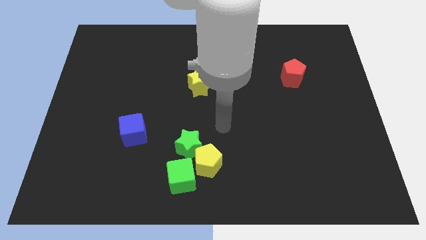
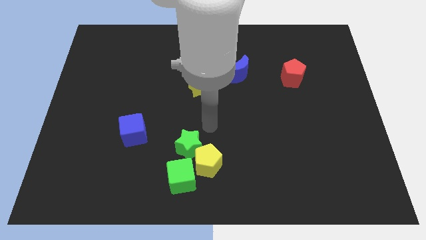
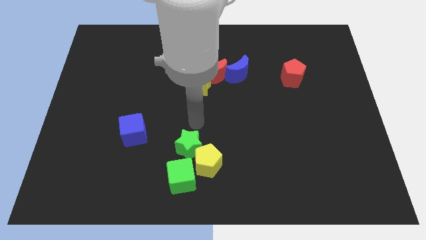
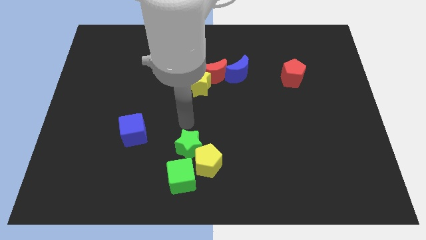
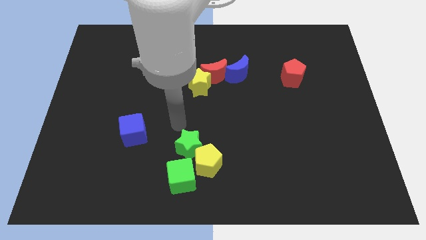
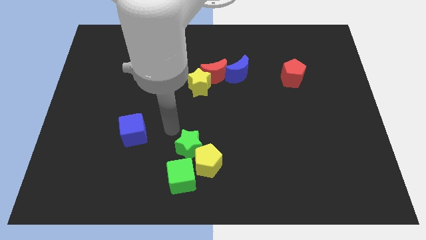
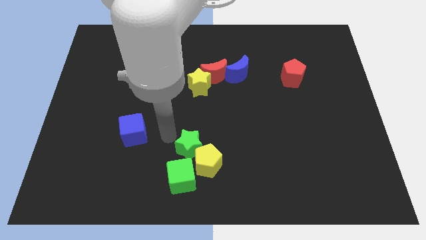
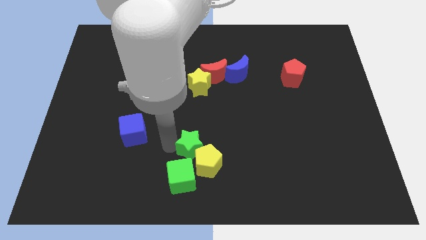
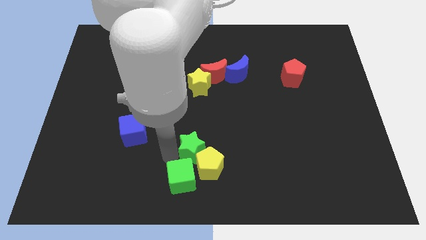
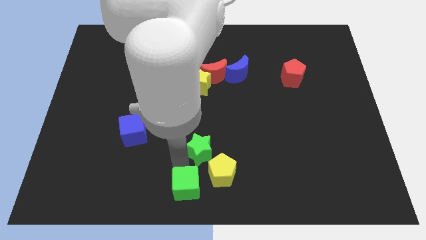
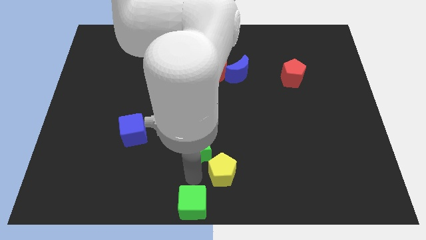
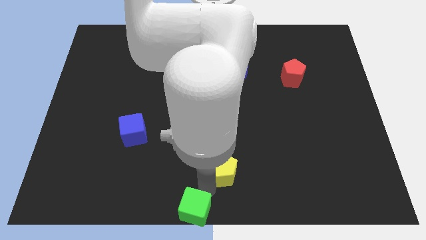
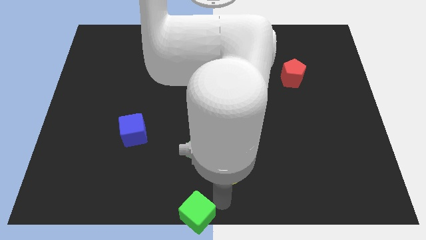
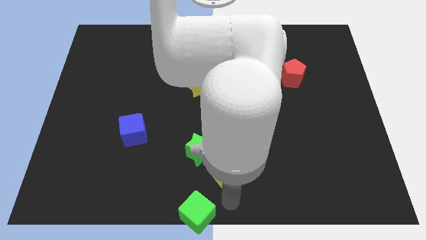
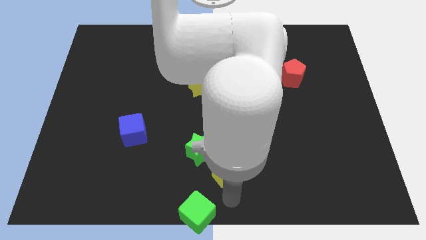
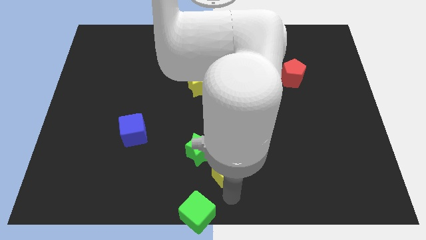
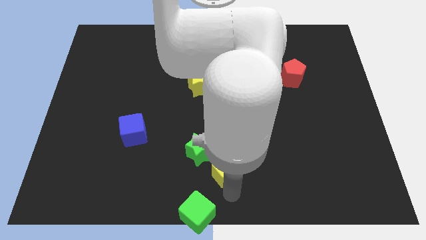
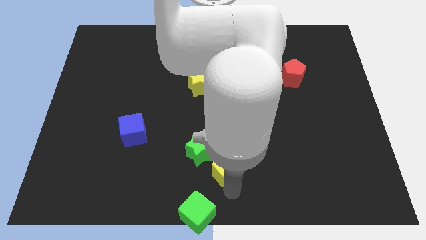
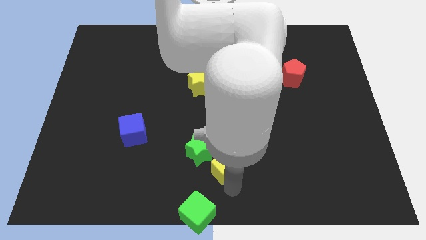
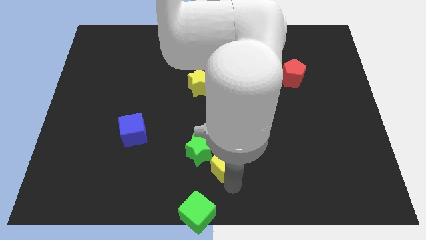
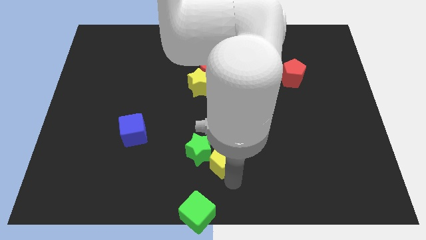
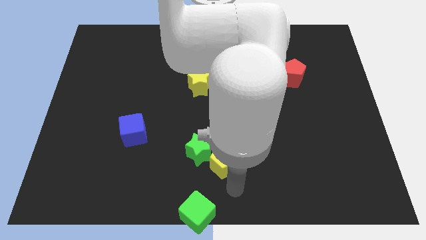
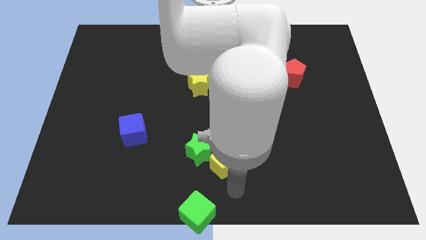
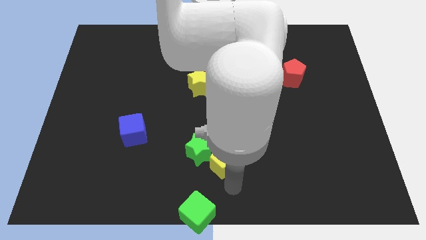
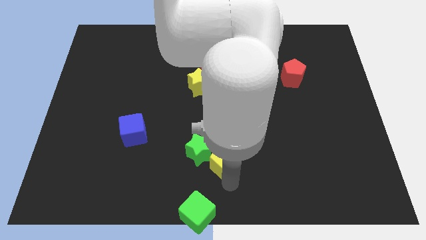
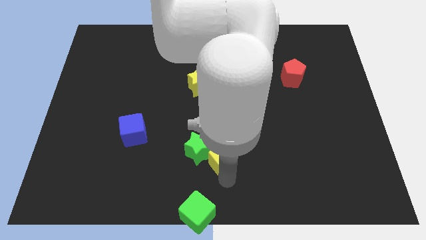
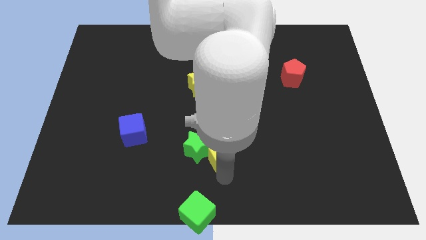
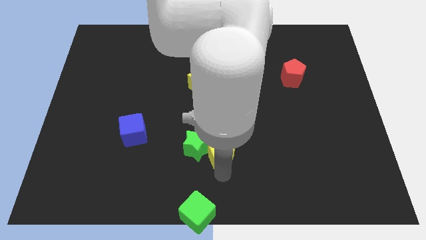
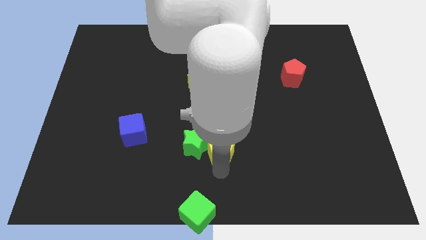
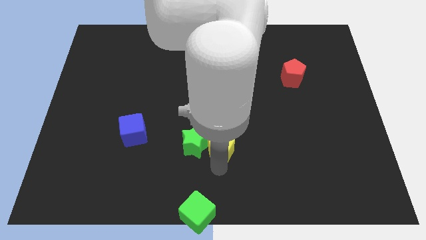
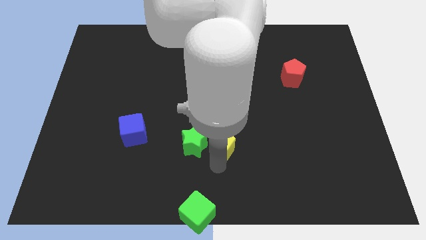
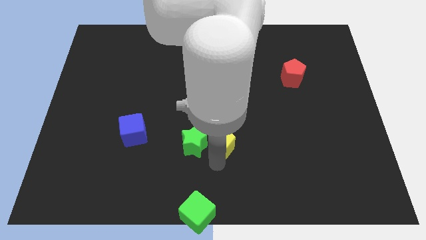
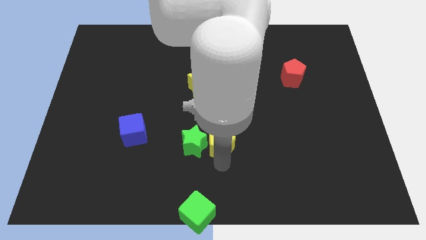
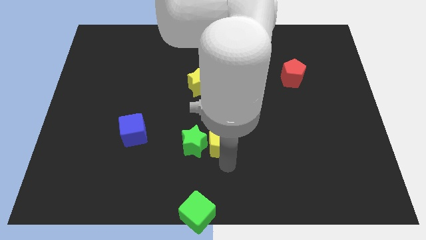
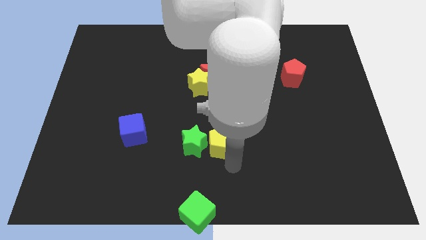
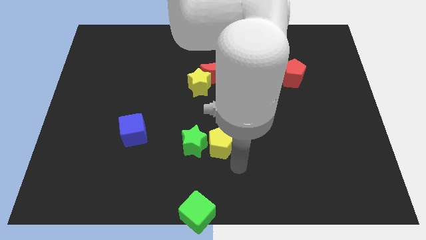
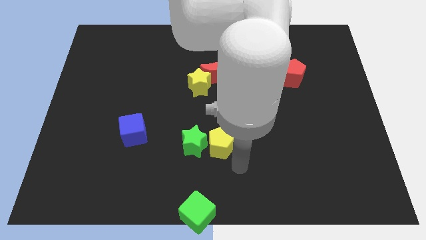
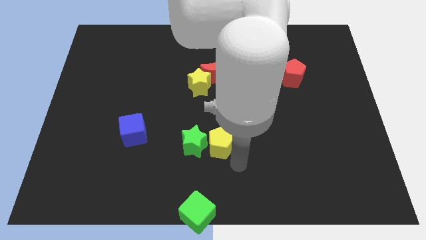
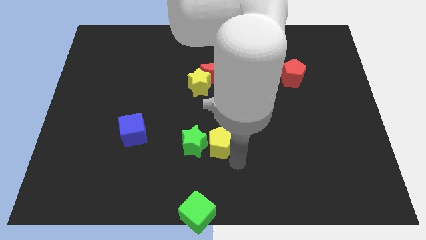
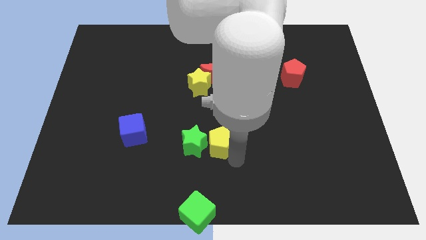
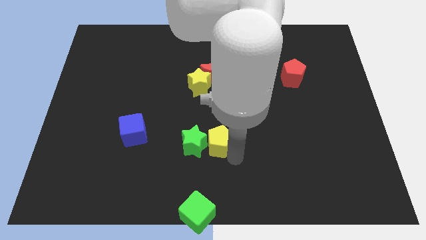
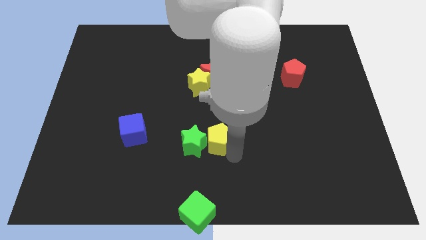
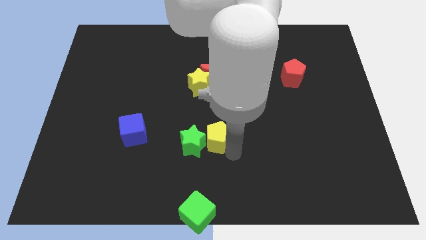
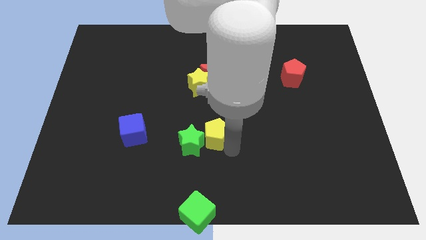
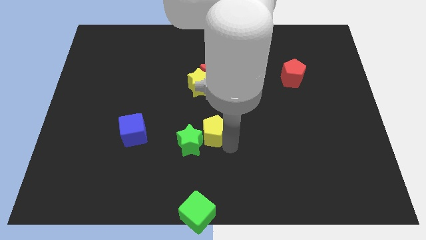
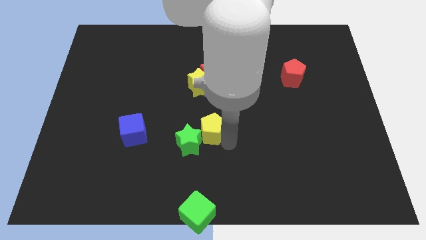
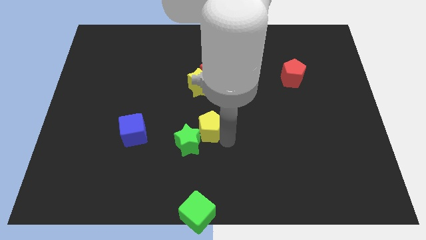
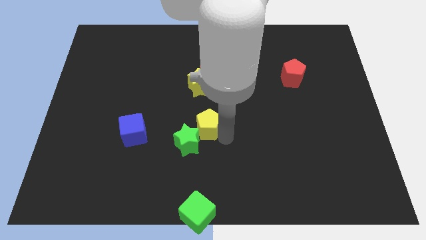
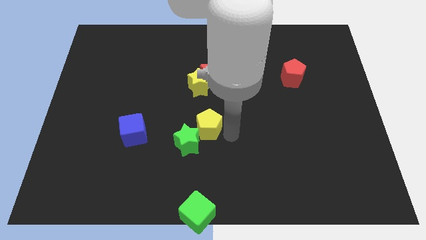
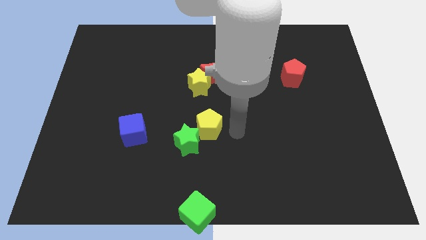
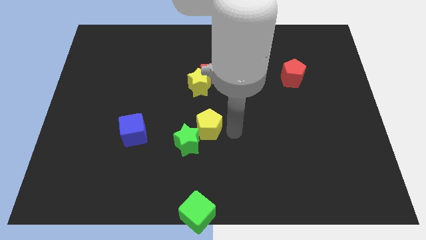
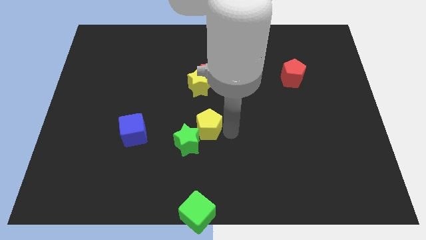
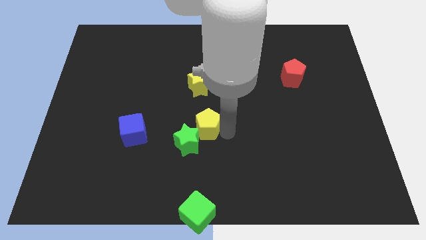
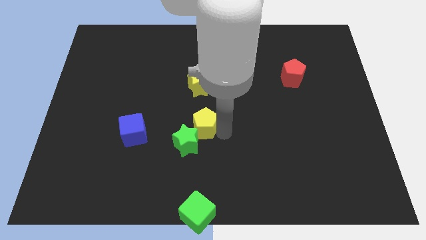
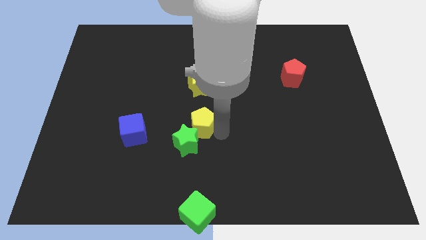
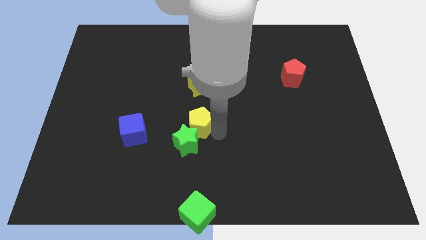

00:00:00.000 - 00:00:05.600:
move the yellow pentagon a little diagonally upwards and left

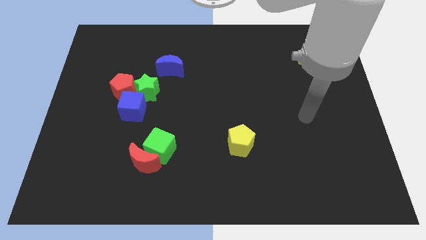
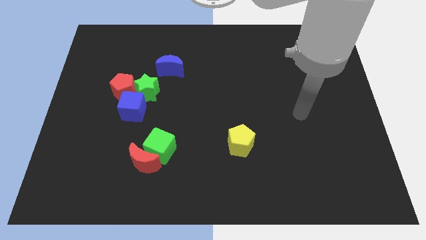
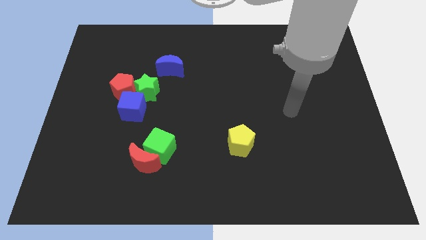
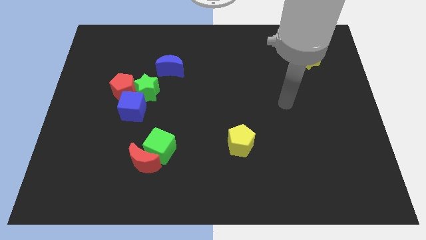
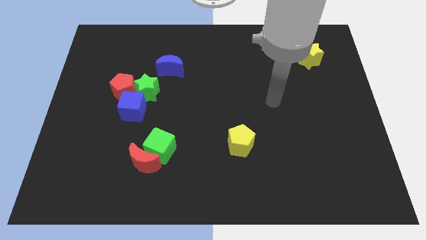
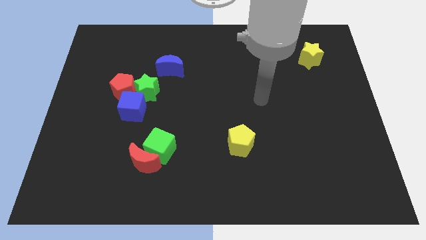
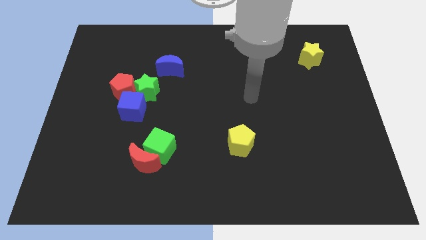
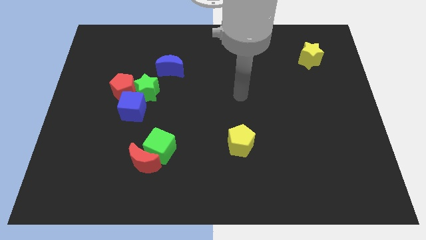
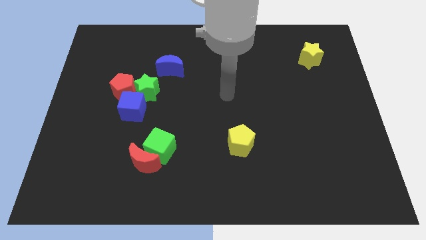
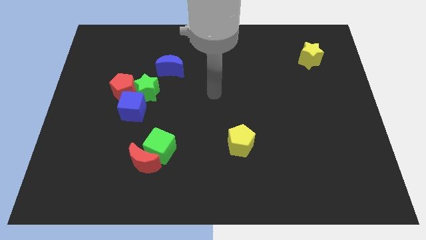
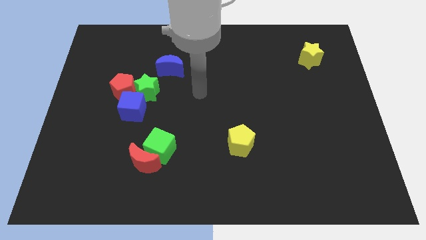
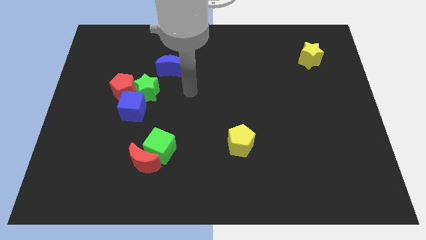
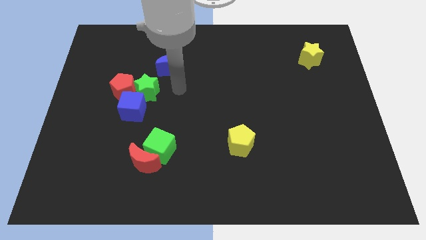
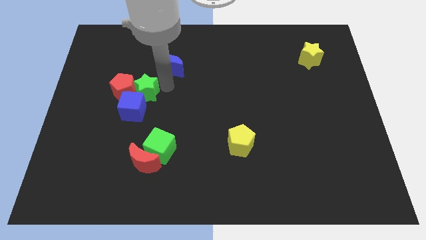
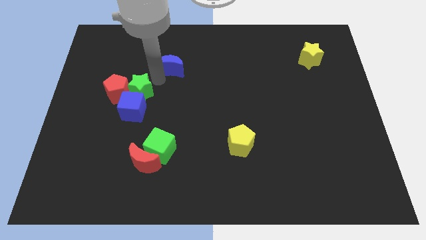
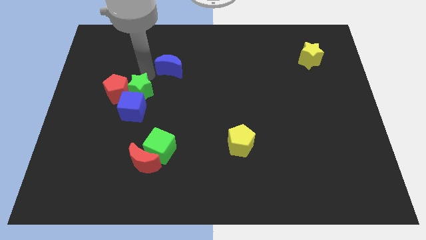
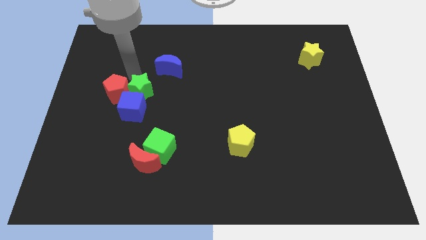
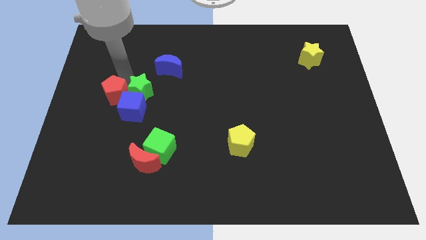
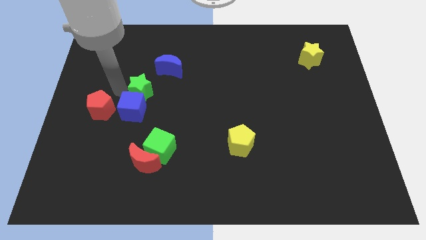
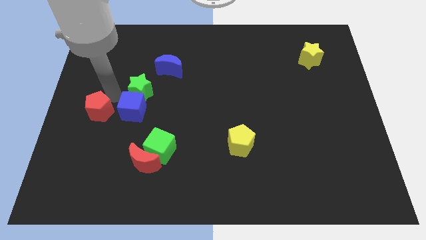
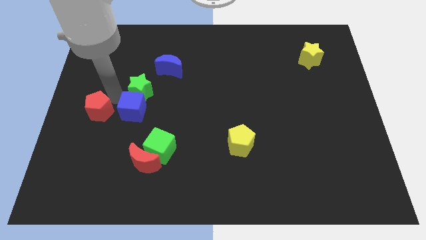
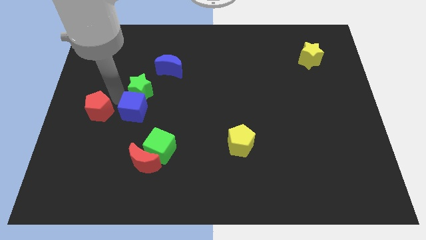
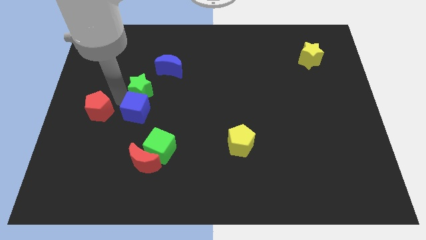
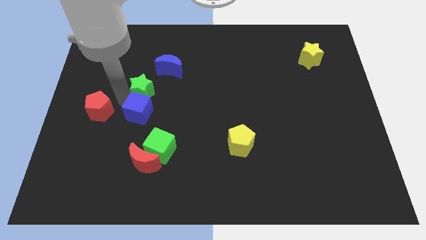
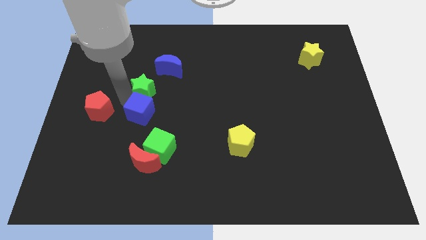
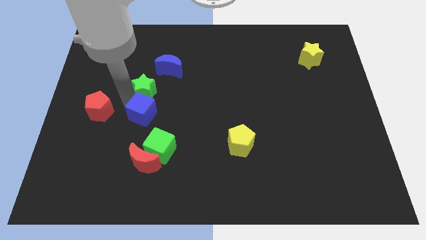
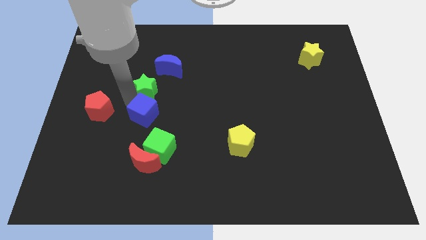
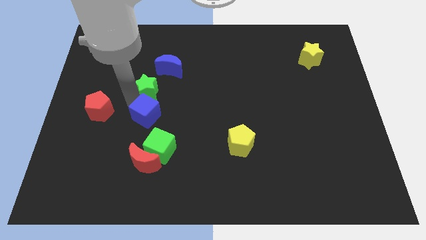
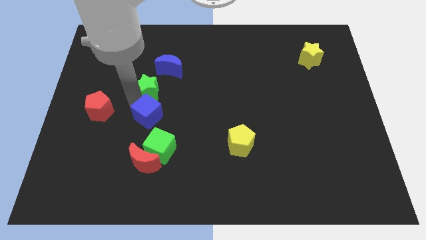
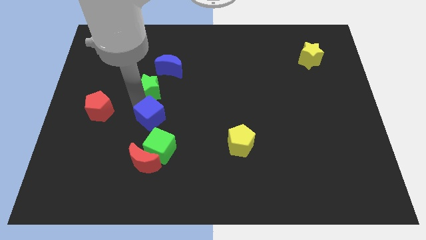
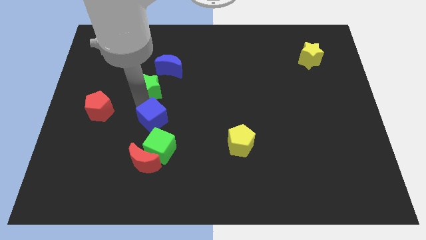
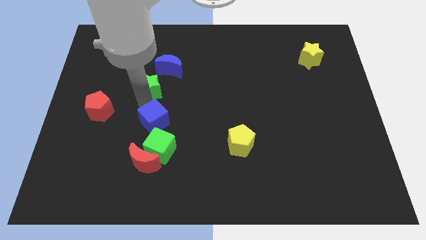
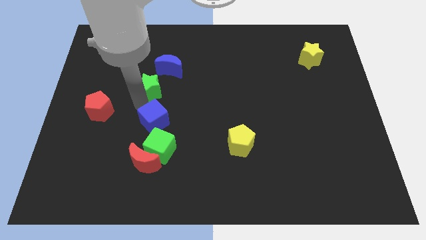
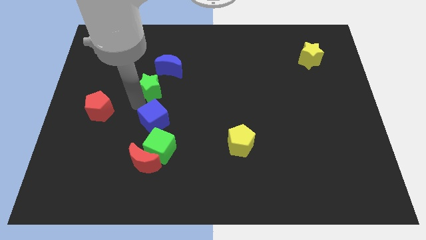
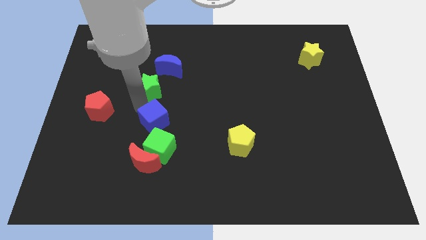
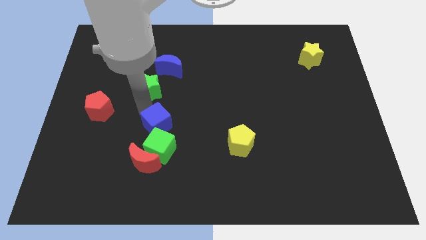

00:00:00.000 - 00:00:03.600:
slide the blue cube downwards and to the right slightly
